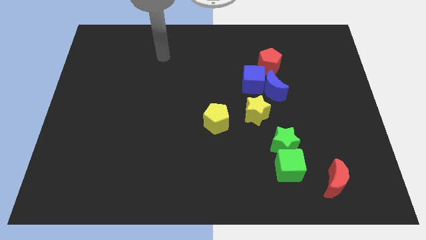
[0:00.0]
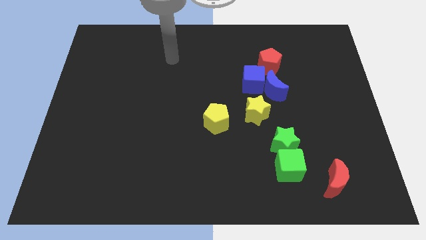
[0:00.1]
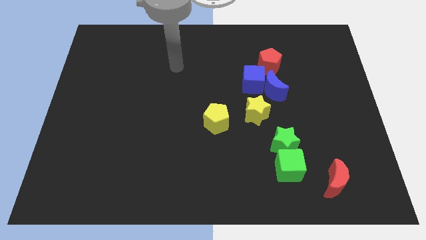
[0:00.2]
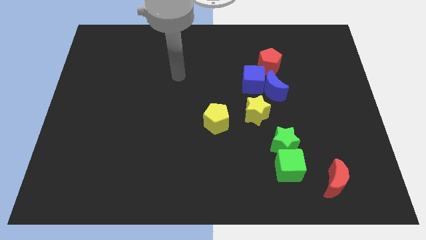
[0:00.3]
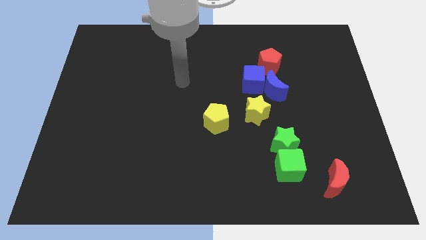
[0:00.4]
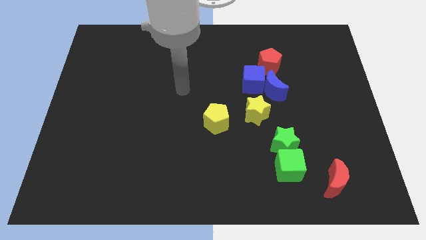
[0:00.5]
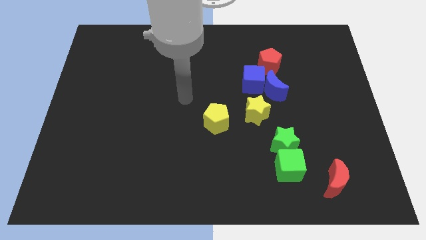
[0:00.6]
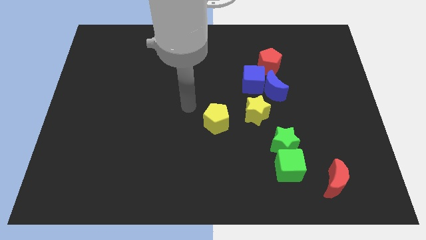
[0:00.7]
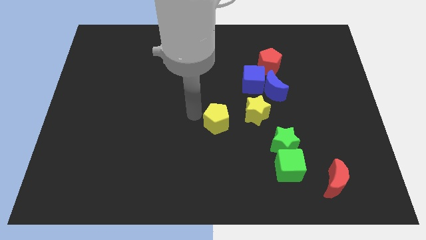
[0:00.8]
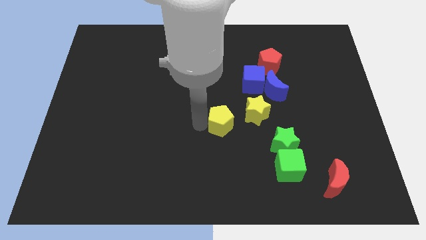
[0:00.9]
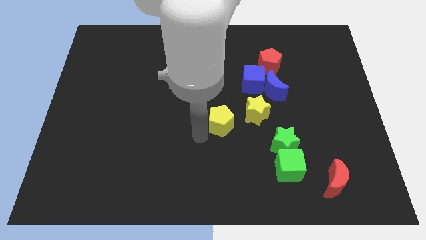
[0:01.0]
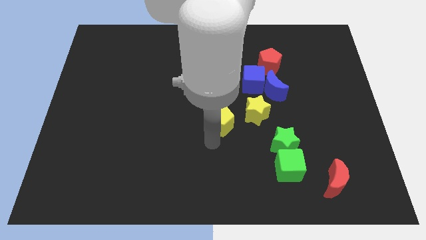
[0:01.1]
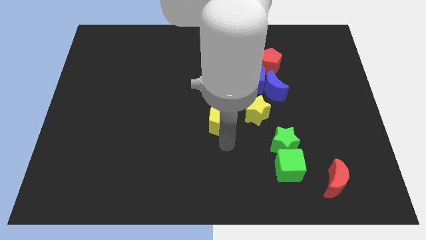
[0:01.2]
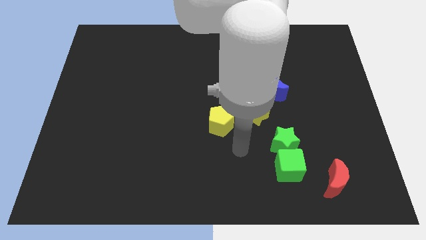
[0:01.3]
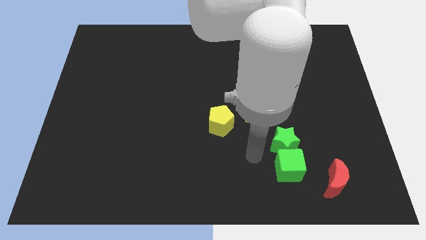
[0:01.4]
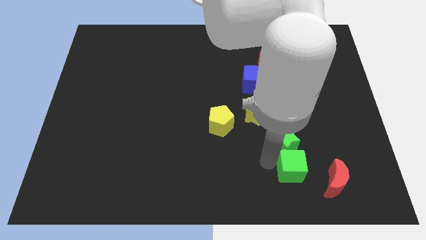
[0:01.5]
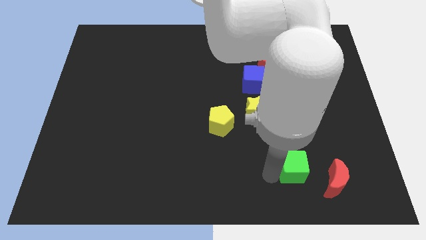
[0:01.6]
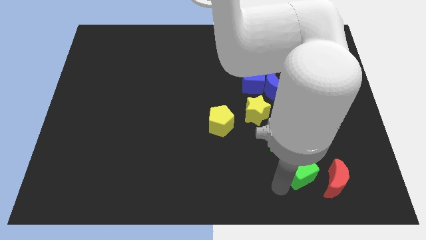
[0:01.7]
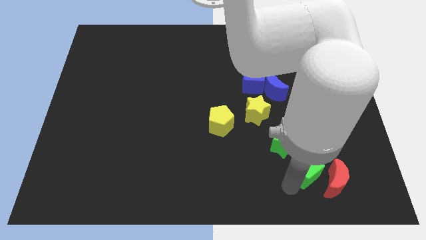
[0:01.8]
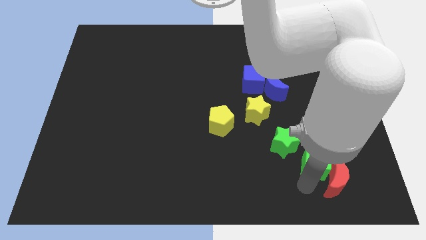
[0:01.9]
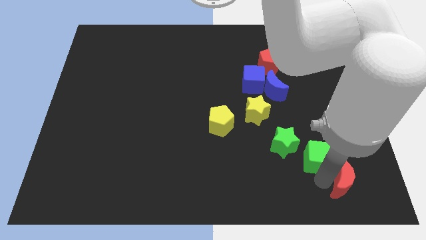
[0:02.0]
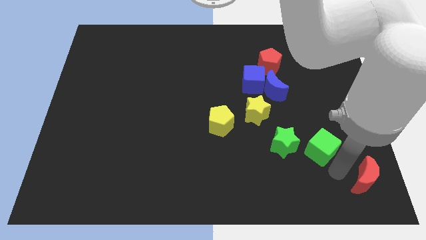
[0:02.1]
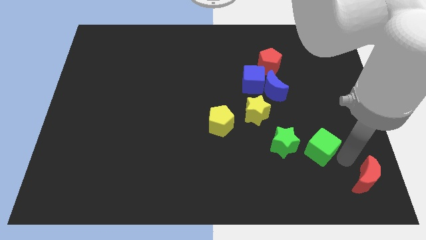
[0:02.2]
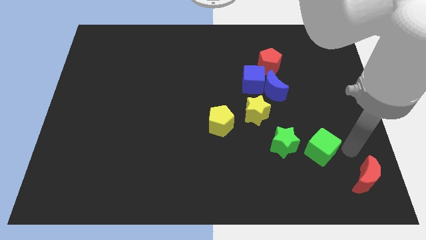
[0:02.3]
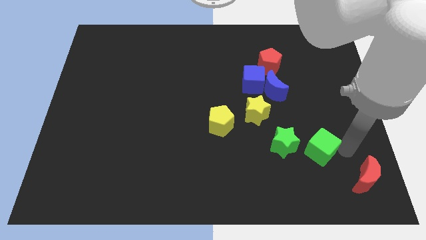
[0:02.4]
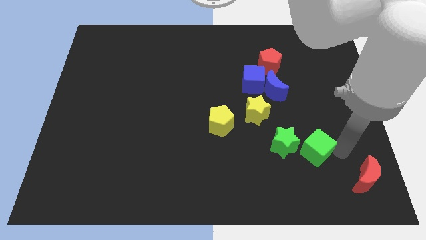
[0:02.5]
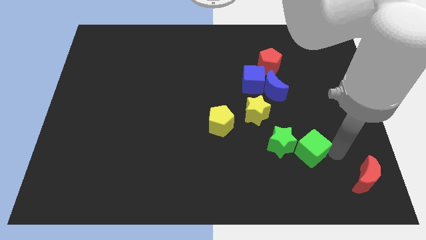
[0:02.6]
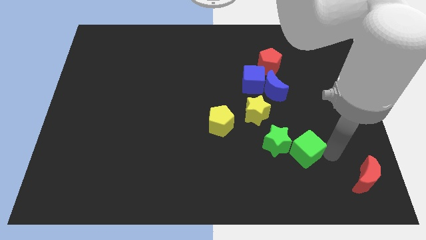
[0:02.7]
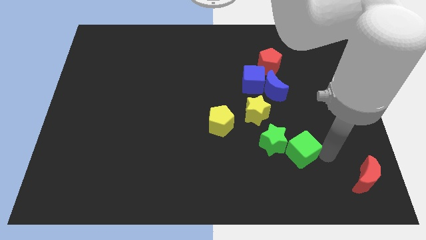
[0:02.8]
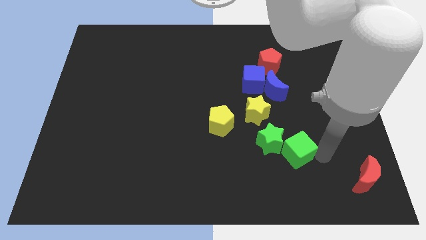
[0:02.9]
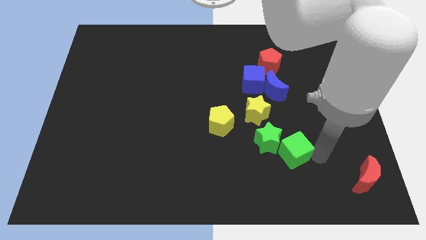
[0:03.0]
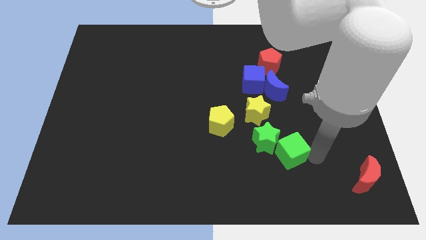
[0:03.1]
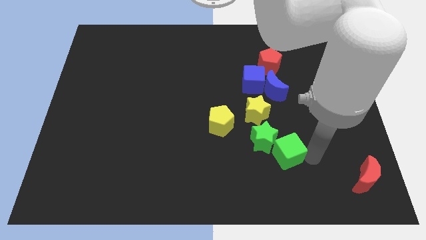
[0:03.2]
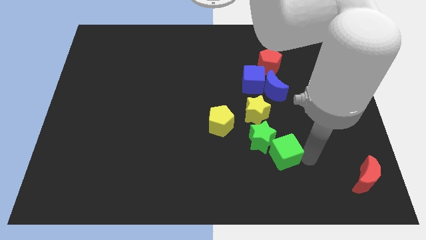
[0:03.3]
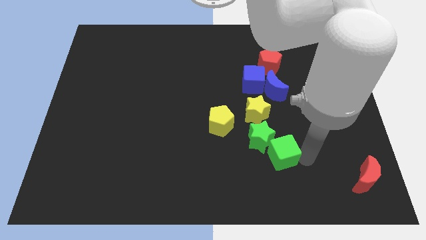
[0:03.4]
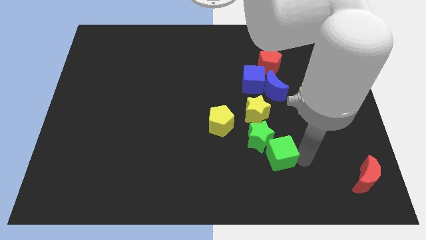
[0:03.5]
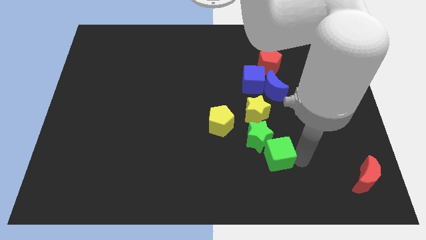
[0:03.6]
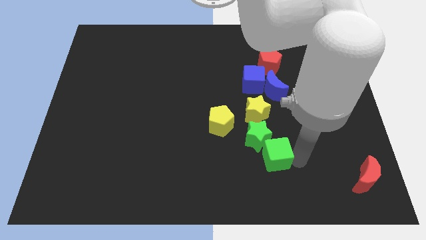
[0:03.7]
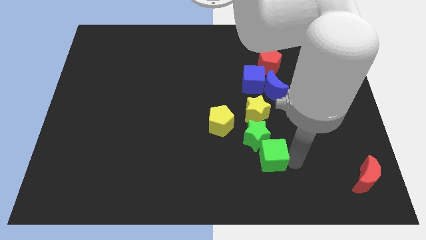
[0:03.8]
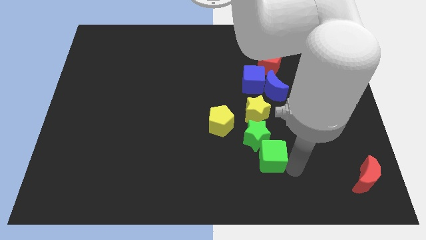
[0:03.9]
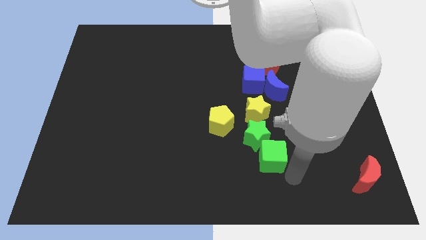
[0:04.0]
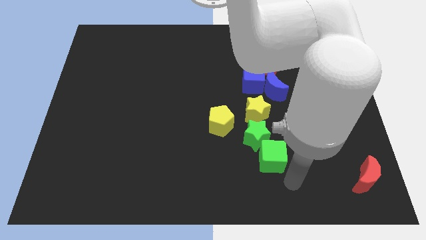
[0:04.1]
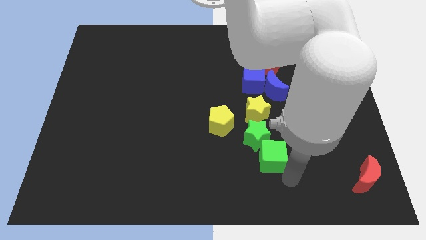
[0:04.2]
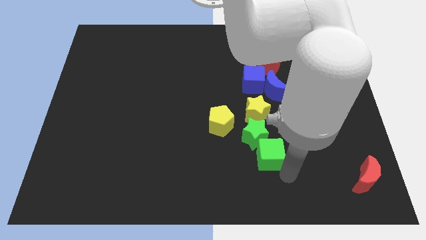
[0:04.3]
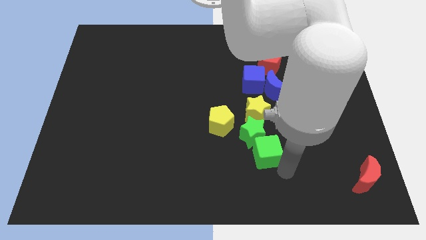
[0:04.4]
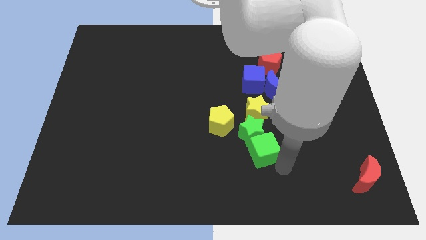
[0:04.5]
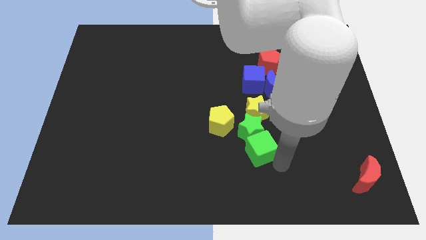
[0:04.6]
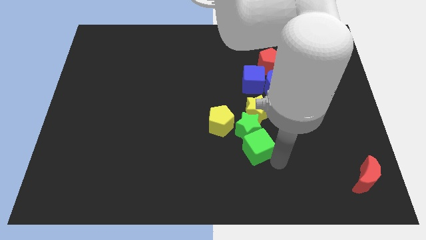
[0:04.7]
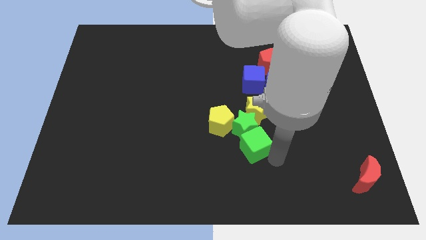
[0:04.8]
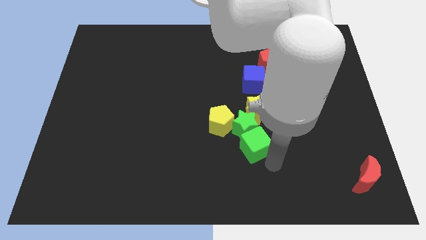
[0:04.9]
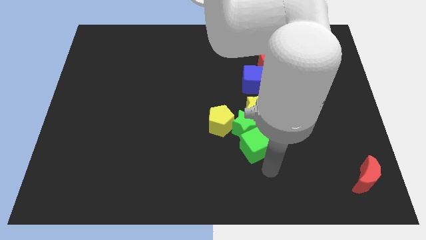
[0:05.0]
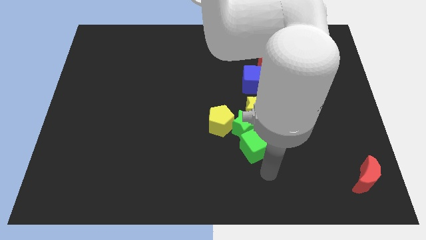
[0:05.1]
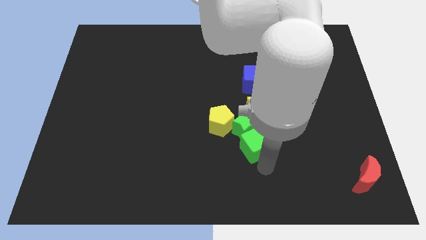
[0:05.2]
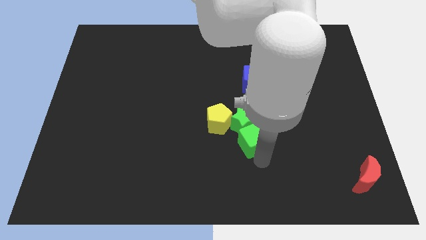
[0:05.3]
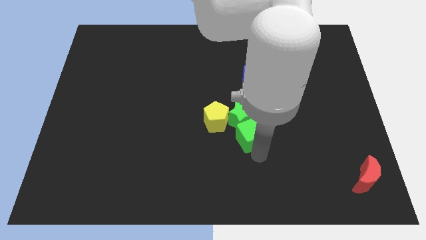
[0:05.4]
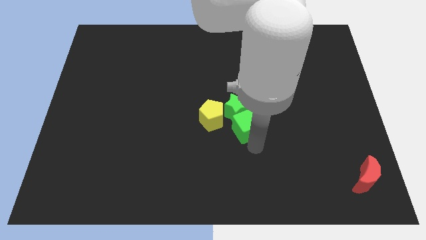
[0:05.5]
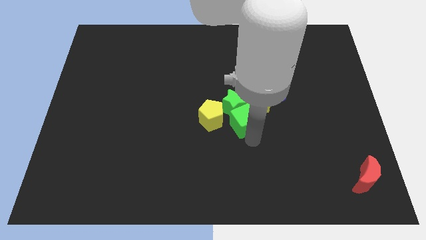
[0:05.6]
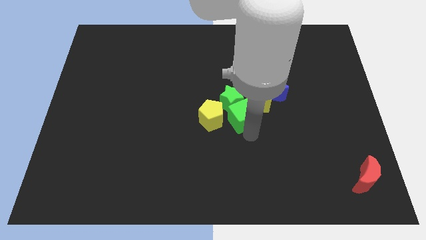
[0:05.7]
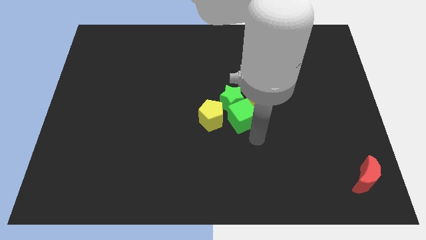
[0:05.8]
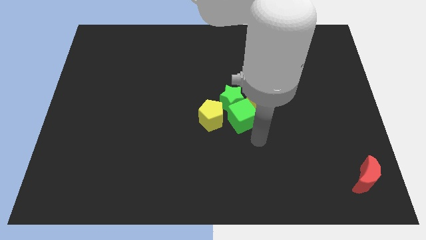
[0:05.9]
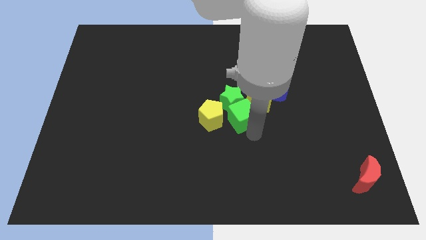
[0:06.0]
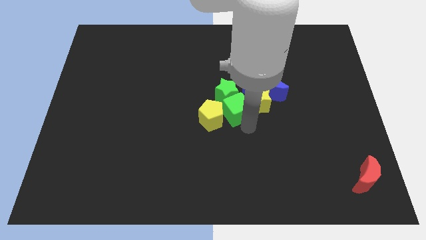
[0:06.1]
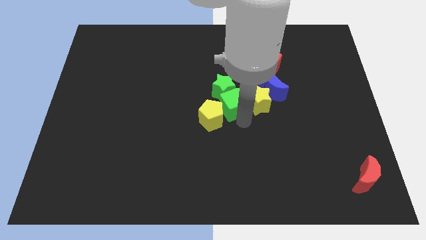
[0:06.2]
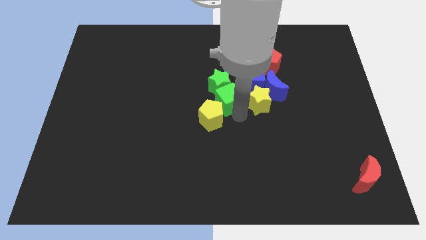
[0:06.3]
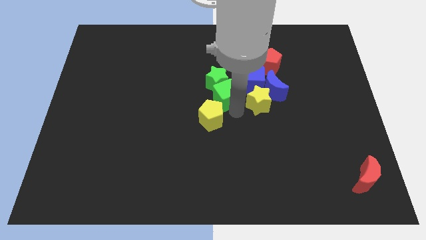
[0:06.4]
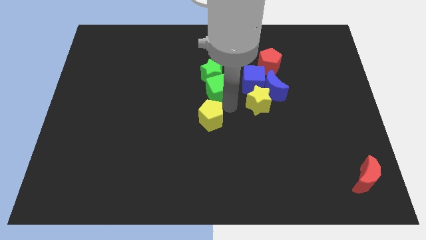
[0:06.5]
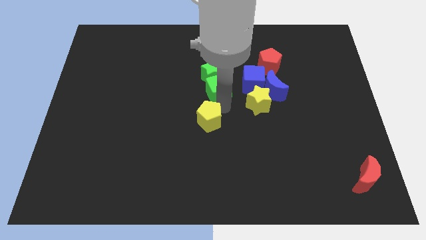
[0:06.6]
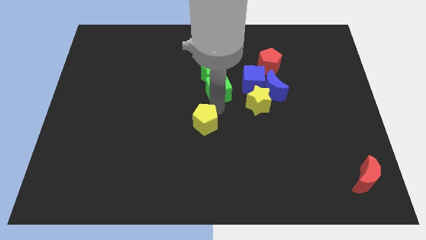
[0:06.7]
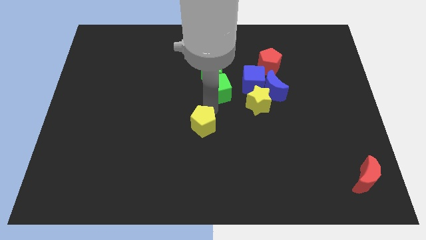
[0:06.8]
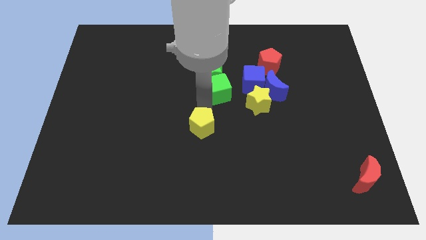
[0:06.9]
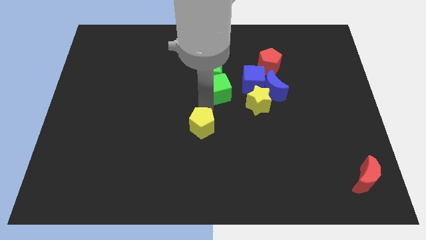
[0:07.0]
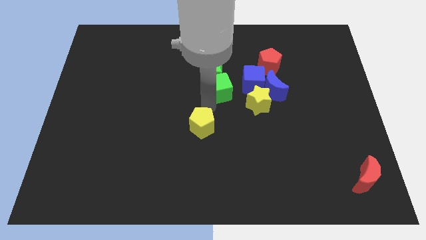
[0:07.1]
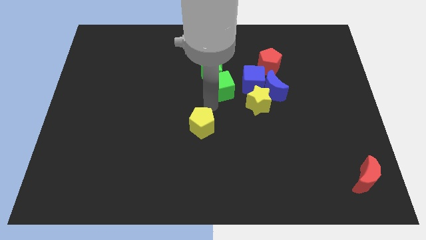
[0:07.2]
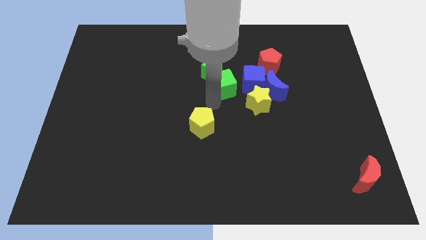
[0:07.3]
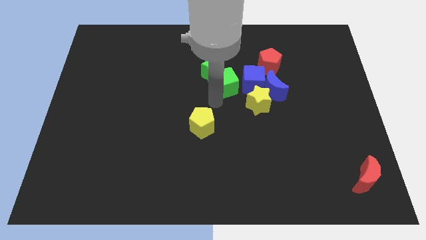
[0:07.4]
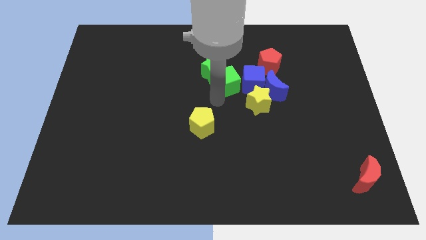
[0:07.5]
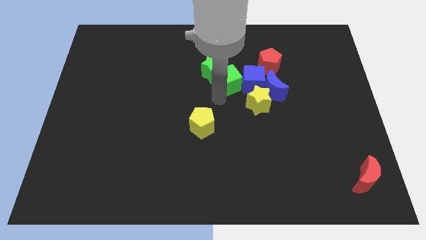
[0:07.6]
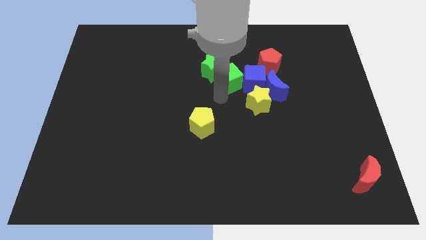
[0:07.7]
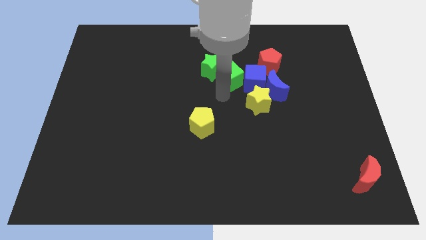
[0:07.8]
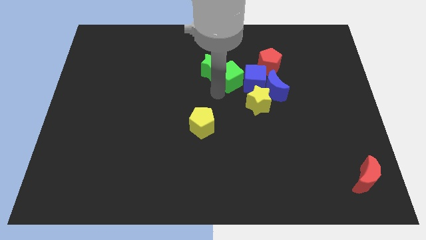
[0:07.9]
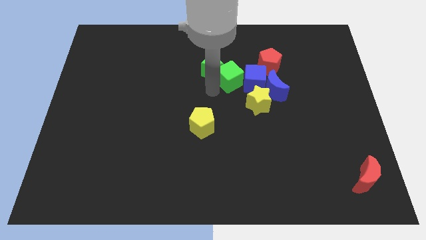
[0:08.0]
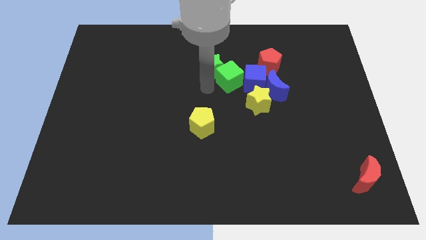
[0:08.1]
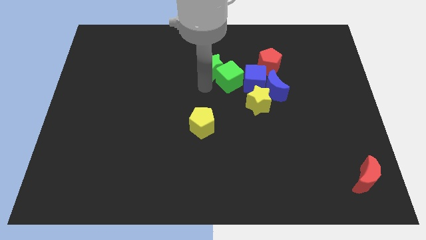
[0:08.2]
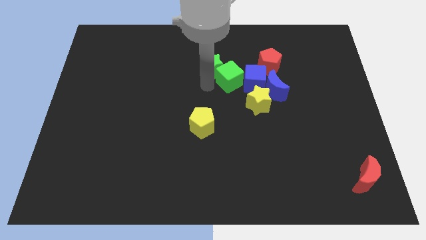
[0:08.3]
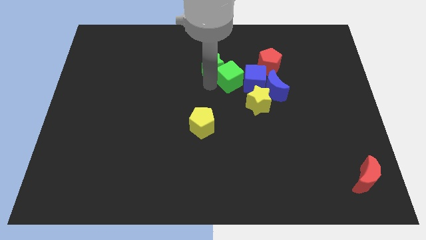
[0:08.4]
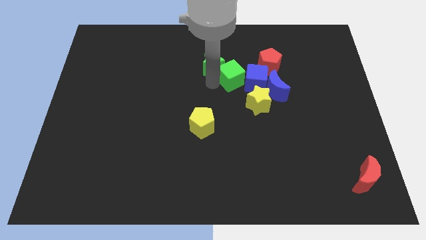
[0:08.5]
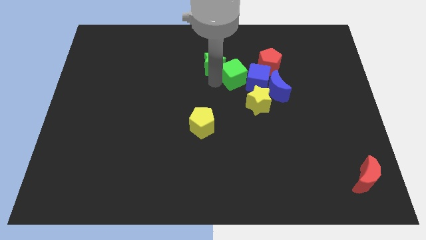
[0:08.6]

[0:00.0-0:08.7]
push the green cube to the top left of the blue moon
